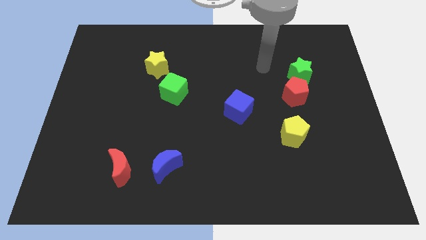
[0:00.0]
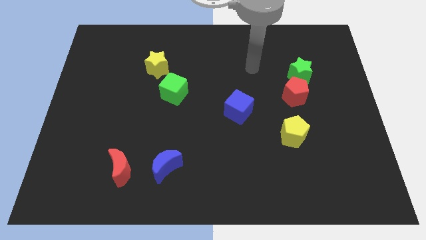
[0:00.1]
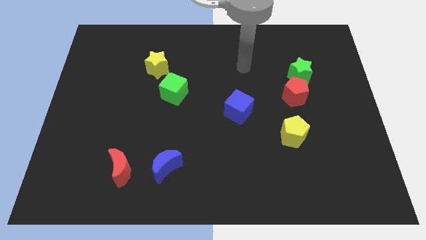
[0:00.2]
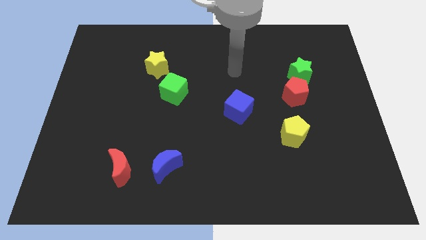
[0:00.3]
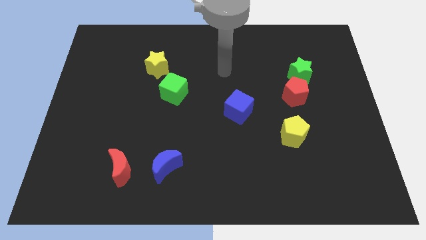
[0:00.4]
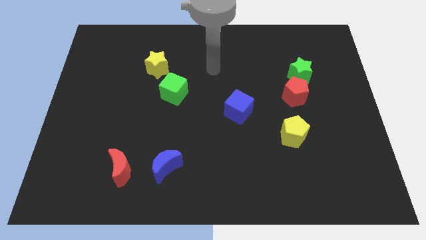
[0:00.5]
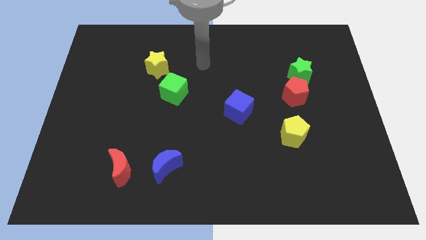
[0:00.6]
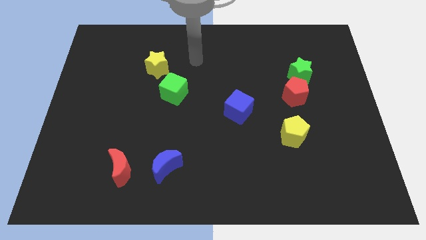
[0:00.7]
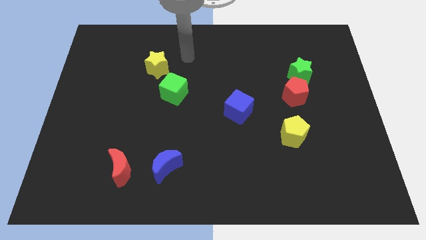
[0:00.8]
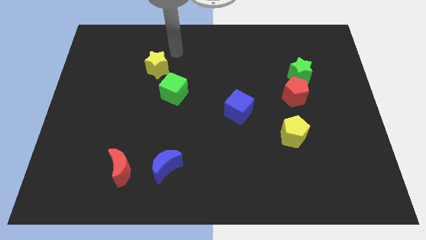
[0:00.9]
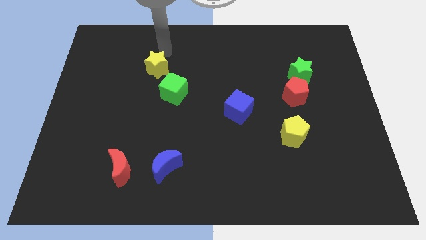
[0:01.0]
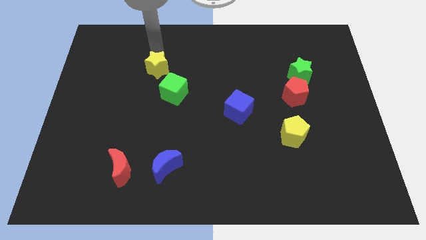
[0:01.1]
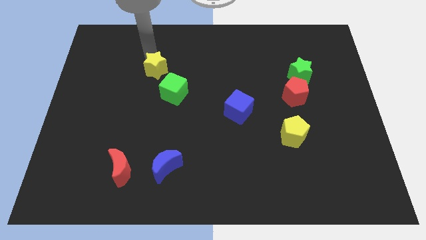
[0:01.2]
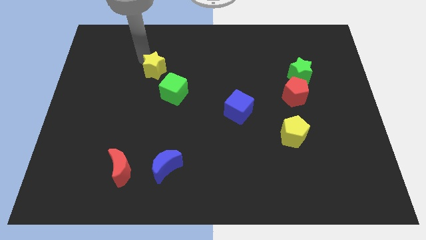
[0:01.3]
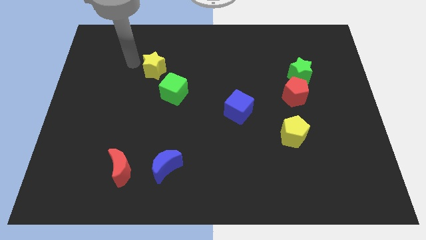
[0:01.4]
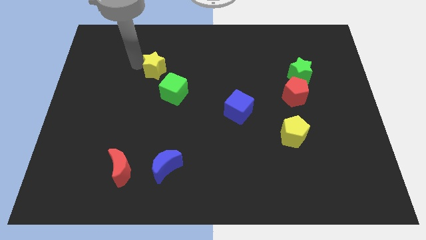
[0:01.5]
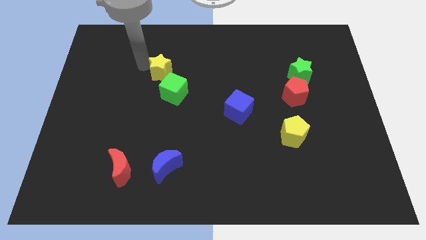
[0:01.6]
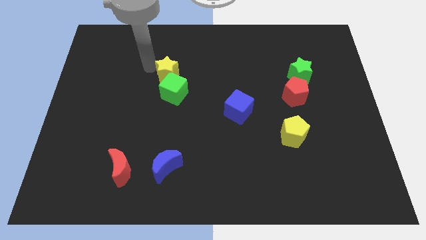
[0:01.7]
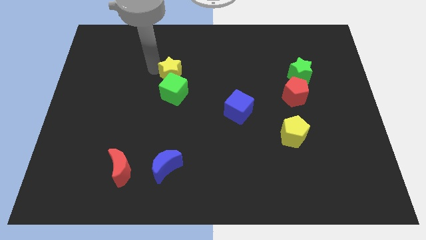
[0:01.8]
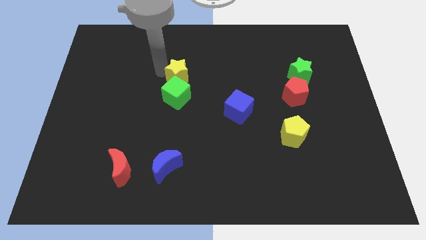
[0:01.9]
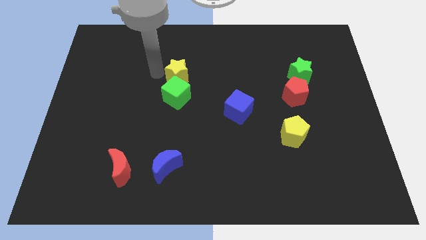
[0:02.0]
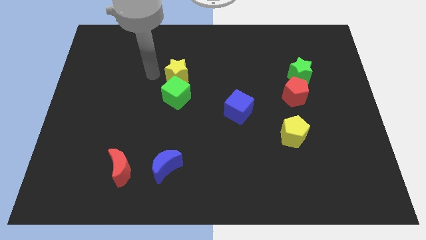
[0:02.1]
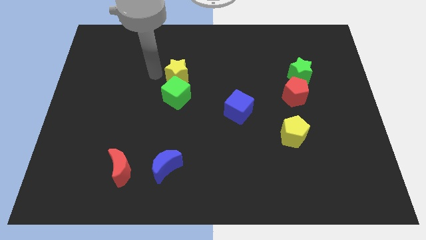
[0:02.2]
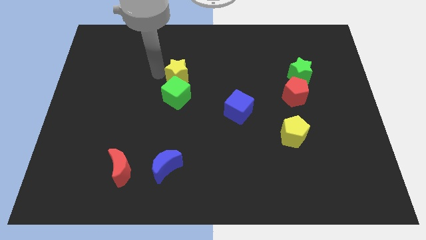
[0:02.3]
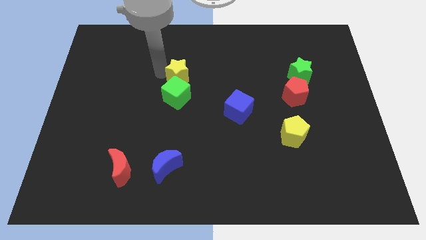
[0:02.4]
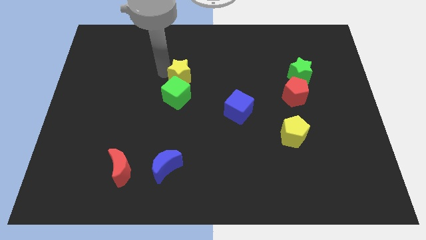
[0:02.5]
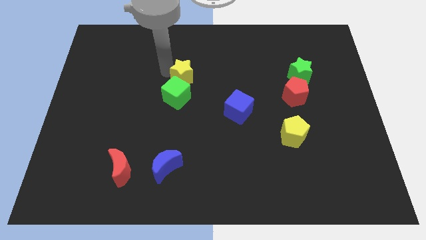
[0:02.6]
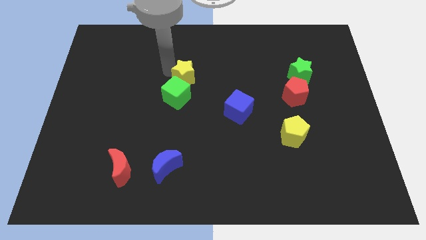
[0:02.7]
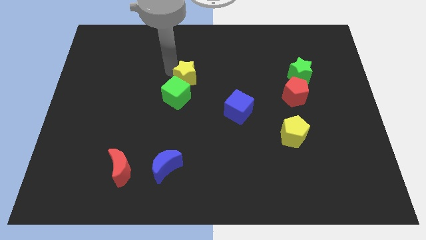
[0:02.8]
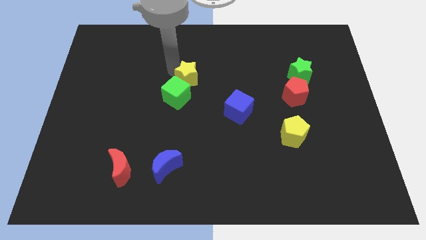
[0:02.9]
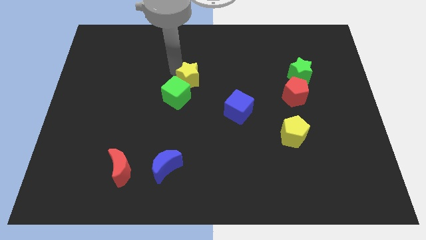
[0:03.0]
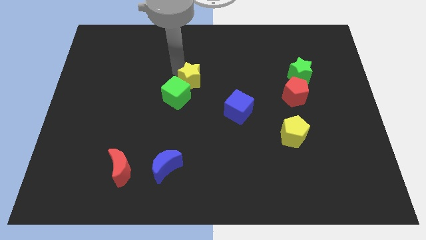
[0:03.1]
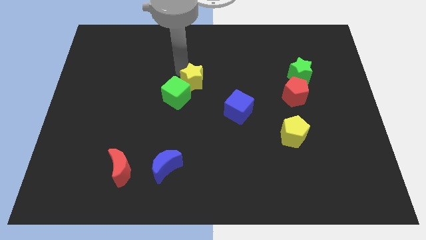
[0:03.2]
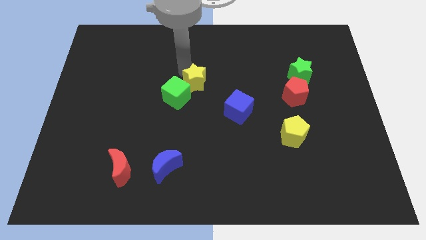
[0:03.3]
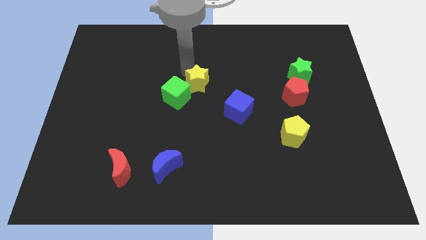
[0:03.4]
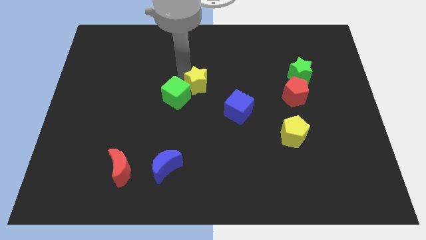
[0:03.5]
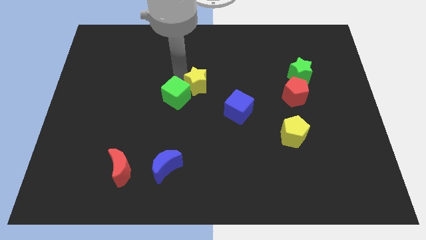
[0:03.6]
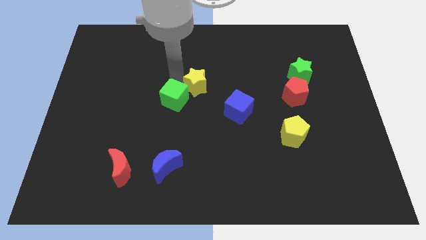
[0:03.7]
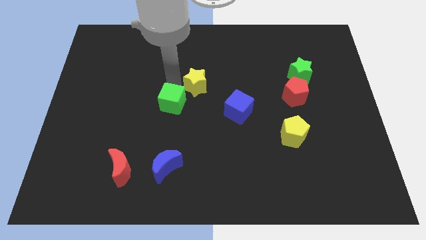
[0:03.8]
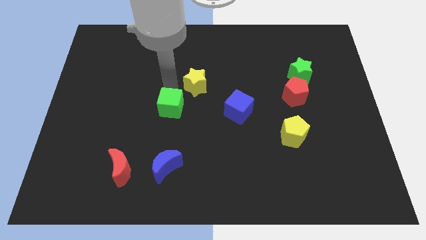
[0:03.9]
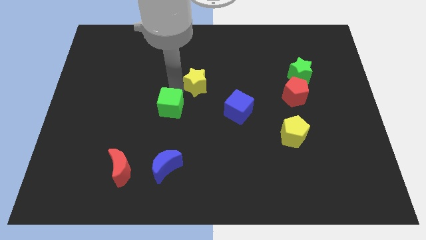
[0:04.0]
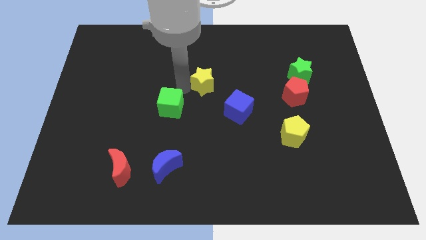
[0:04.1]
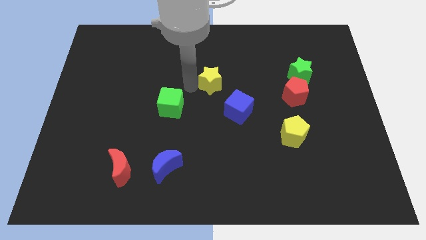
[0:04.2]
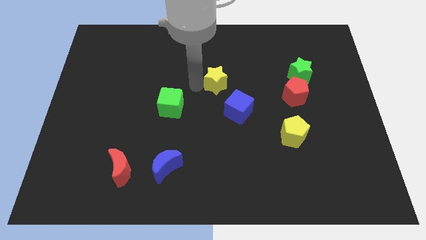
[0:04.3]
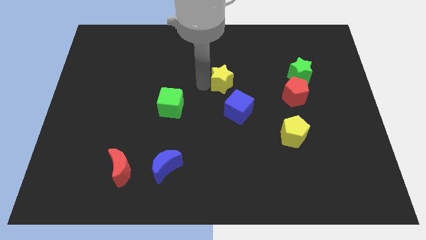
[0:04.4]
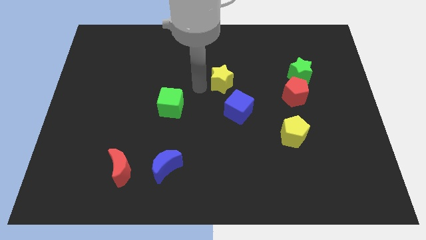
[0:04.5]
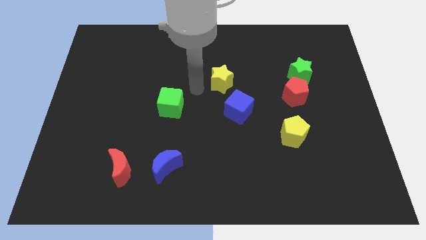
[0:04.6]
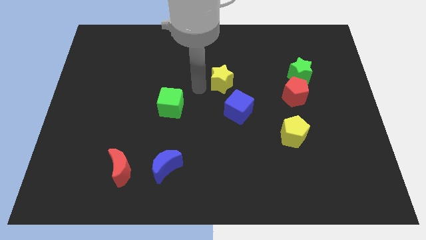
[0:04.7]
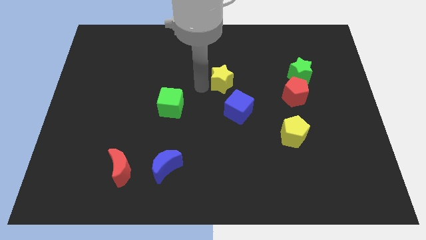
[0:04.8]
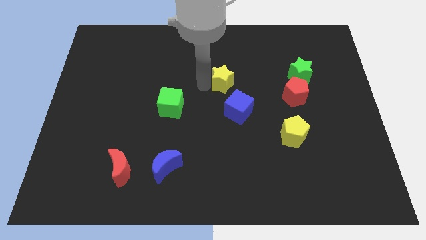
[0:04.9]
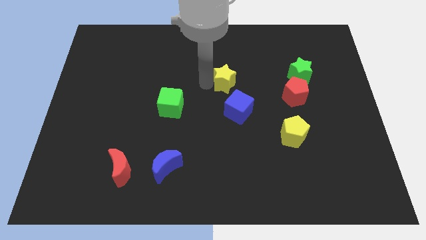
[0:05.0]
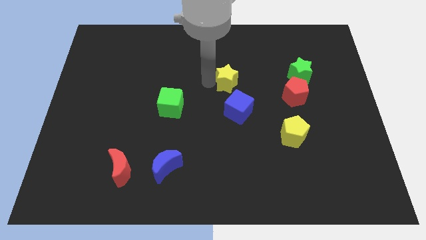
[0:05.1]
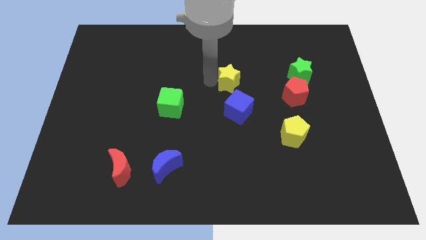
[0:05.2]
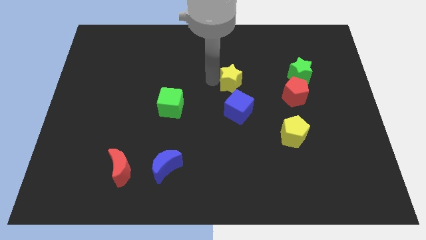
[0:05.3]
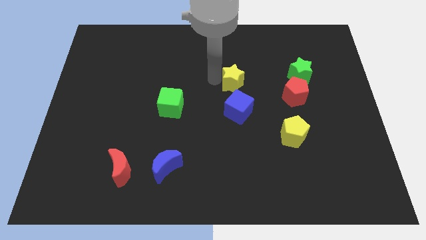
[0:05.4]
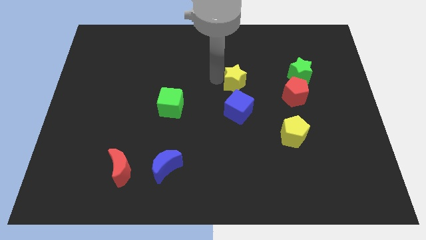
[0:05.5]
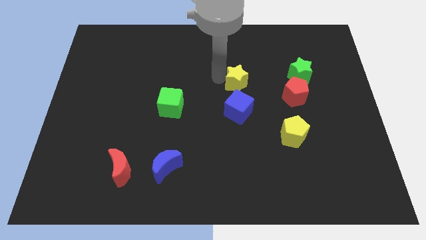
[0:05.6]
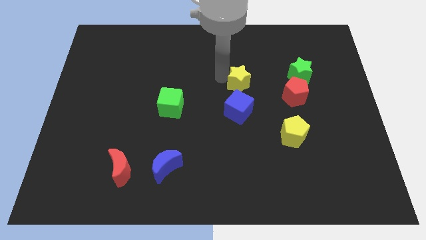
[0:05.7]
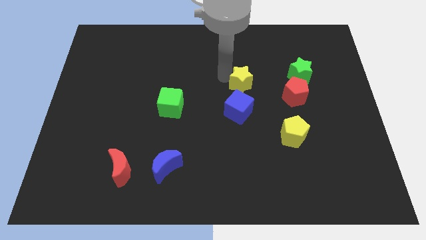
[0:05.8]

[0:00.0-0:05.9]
push the yellow star to the right

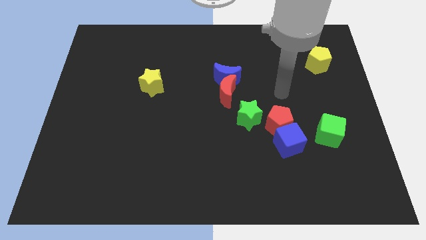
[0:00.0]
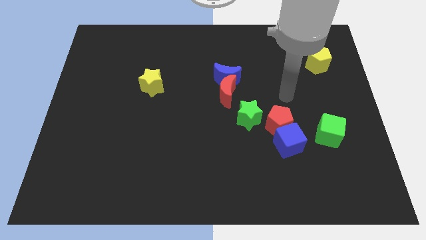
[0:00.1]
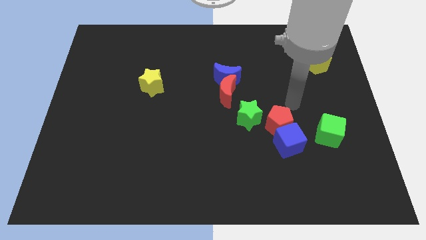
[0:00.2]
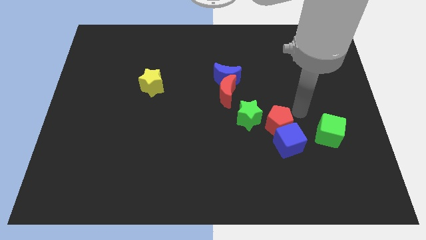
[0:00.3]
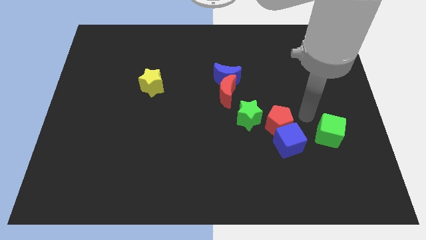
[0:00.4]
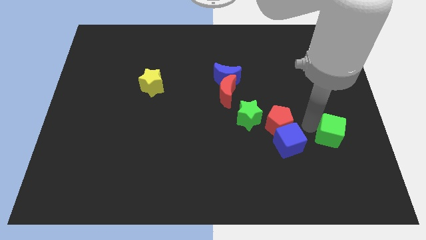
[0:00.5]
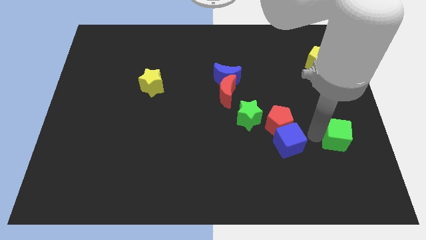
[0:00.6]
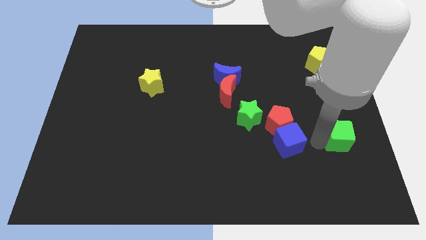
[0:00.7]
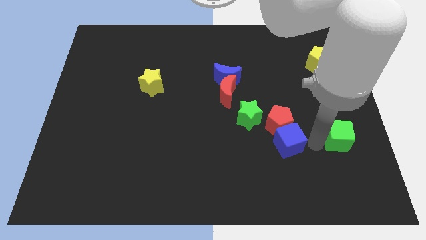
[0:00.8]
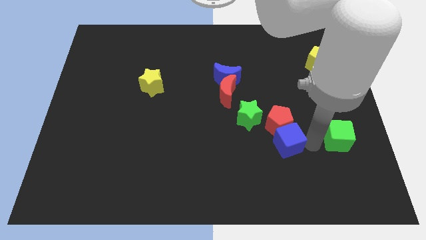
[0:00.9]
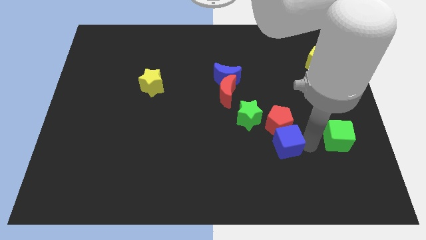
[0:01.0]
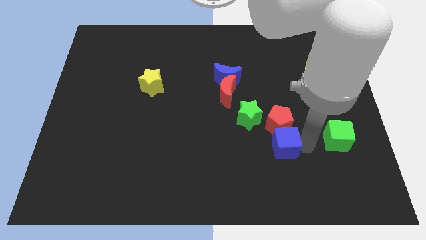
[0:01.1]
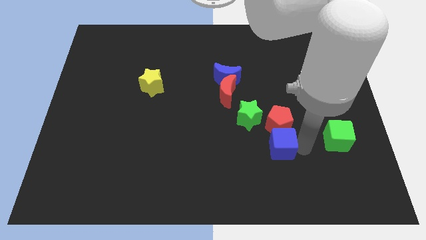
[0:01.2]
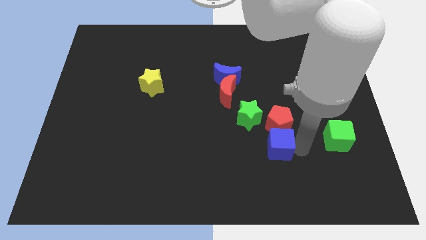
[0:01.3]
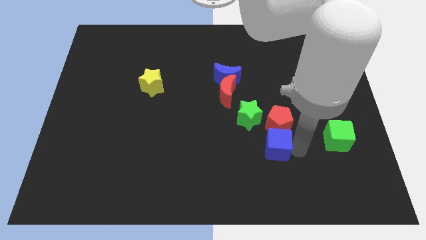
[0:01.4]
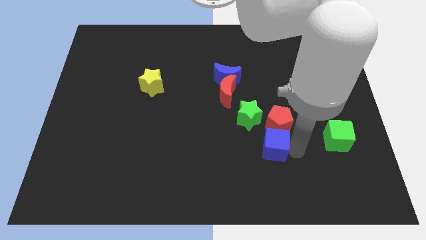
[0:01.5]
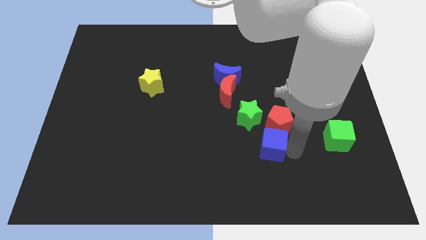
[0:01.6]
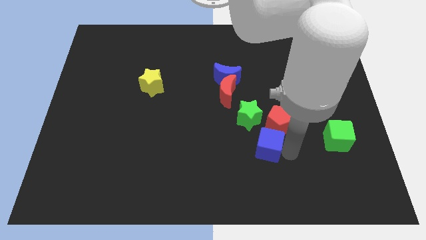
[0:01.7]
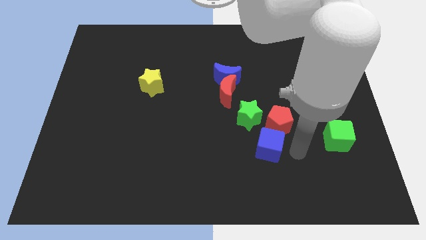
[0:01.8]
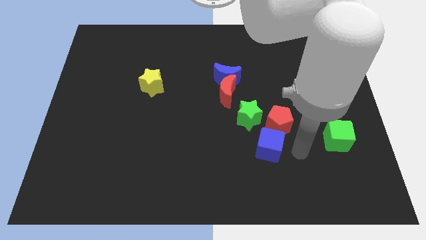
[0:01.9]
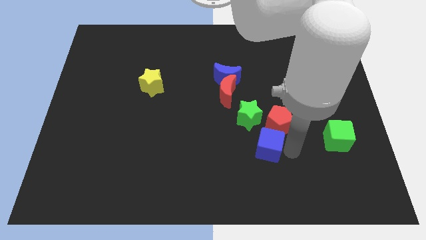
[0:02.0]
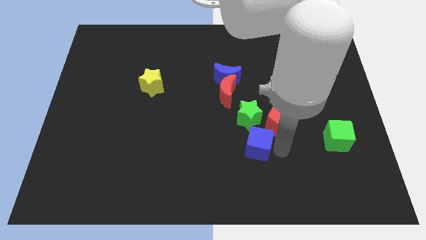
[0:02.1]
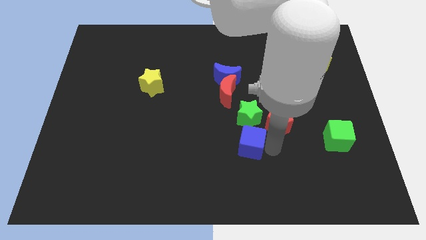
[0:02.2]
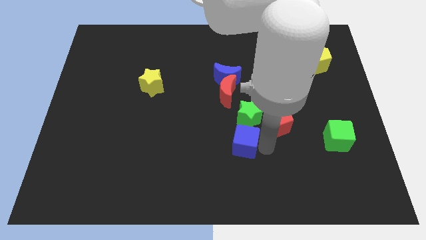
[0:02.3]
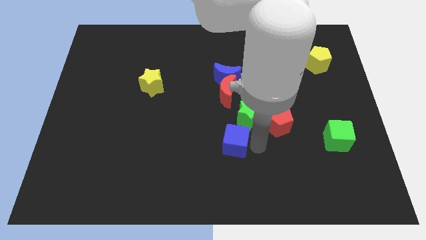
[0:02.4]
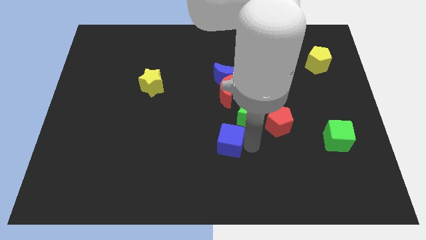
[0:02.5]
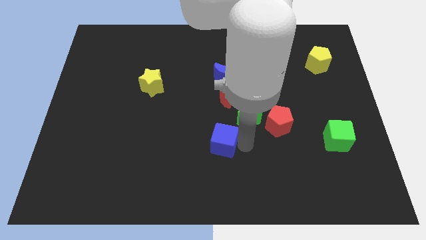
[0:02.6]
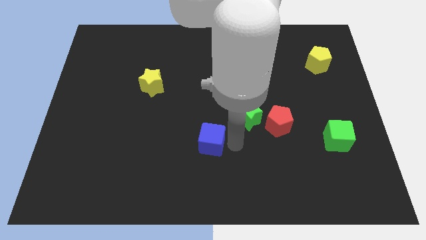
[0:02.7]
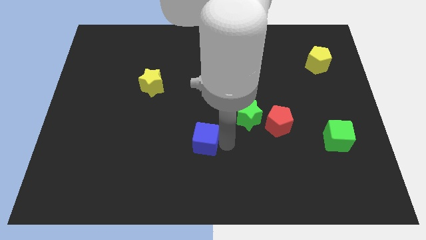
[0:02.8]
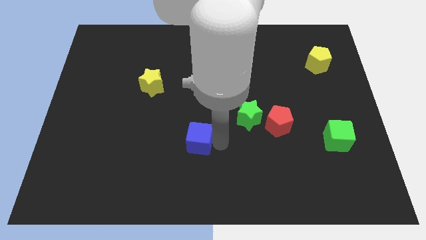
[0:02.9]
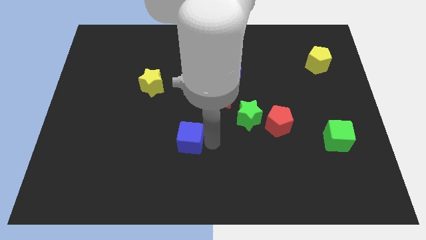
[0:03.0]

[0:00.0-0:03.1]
move the blue cube to the left
